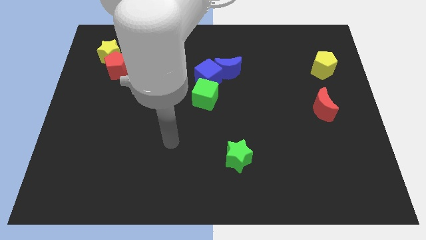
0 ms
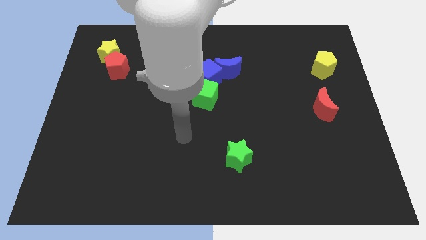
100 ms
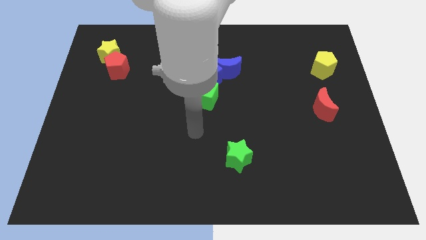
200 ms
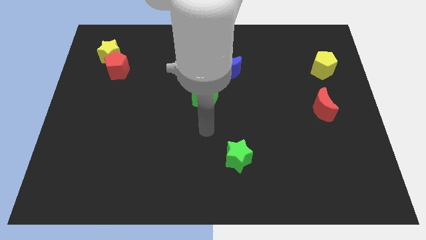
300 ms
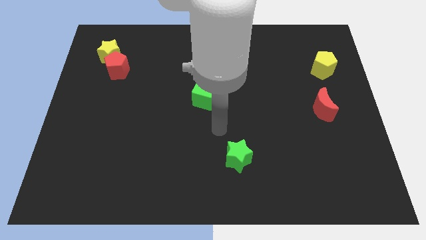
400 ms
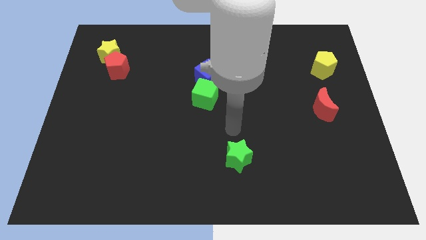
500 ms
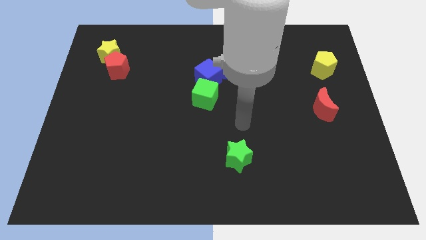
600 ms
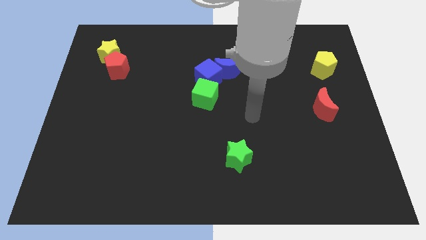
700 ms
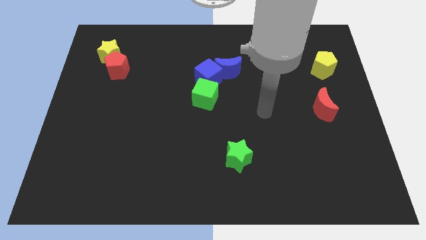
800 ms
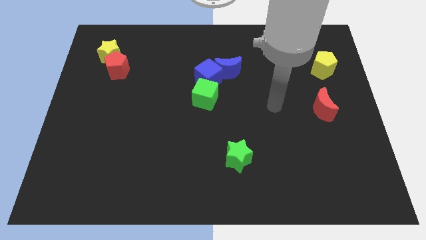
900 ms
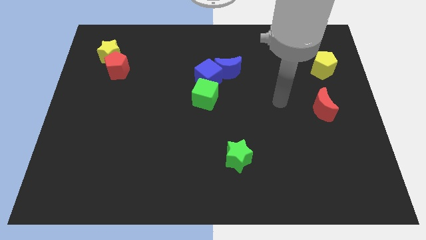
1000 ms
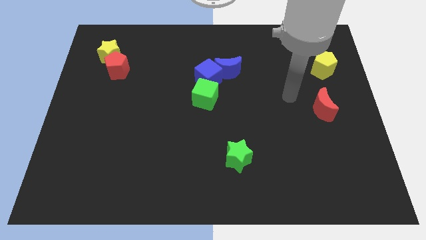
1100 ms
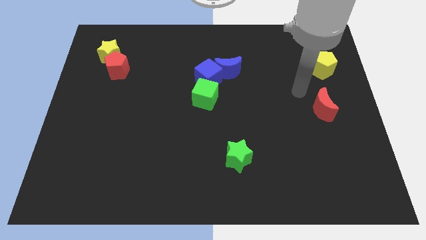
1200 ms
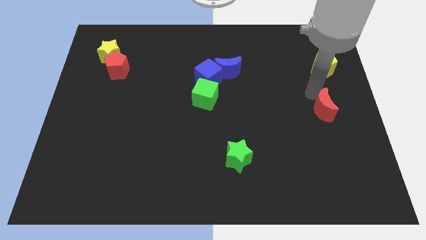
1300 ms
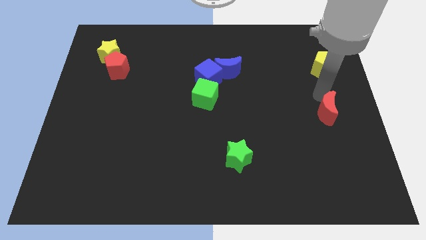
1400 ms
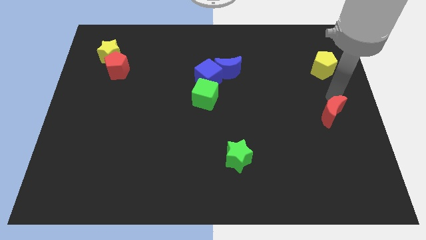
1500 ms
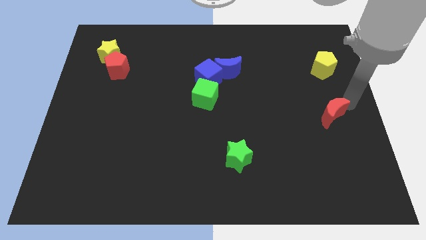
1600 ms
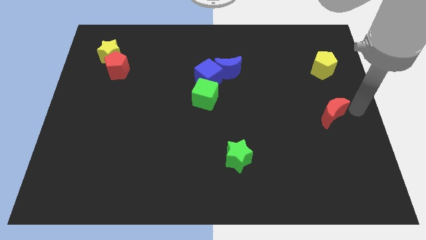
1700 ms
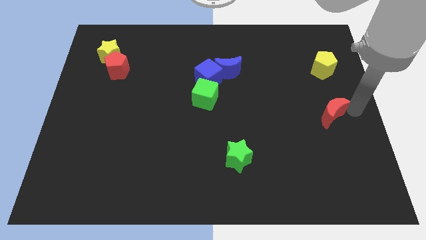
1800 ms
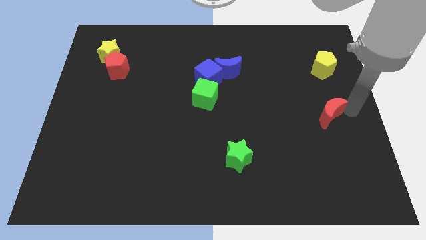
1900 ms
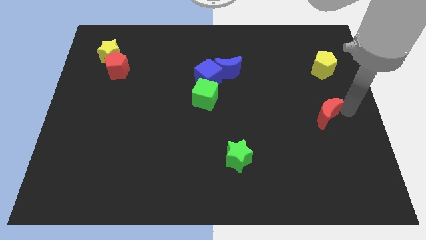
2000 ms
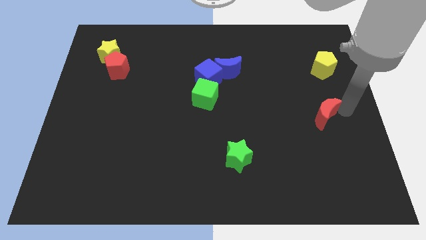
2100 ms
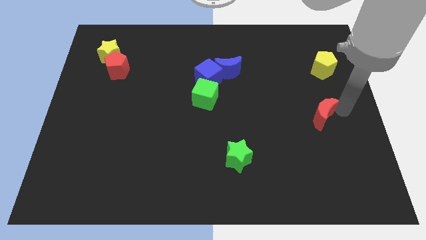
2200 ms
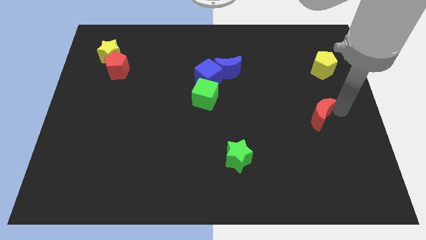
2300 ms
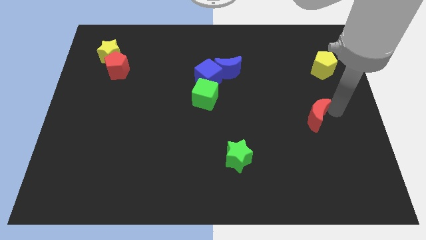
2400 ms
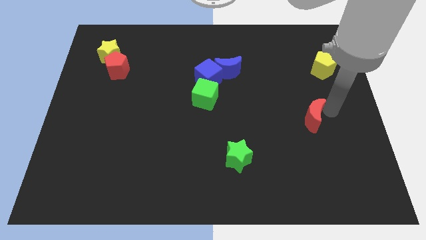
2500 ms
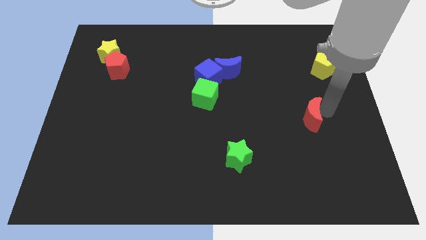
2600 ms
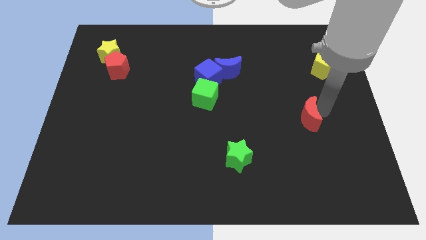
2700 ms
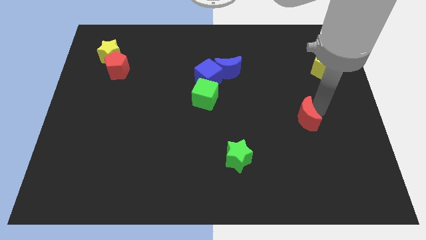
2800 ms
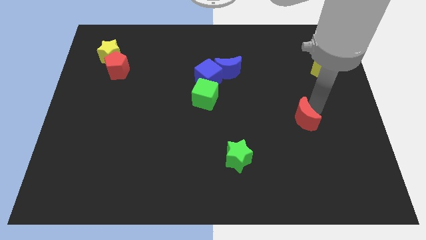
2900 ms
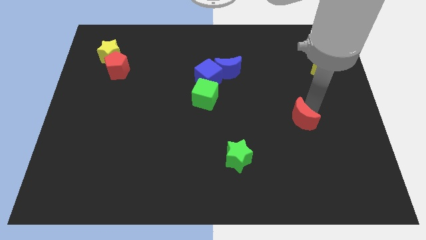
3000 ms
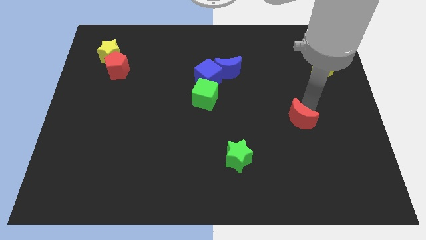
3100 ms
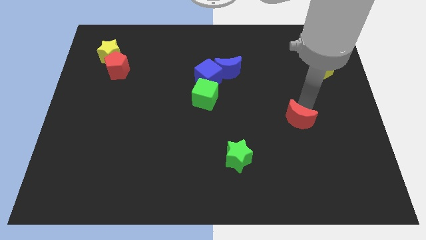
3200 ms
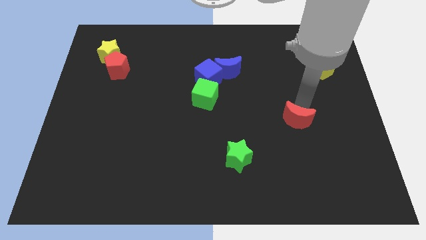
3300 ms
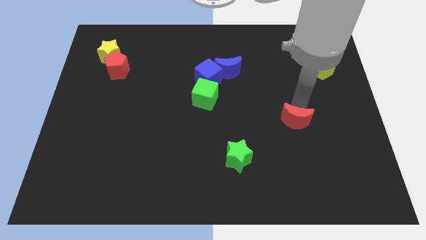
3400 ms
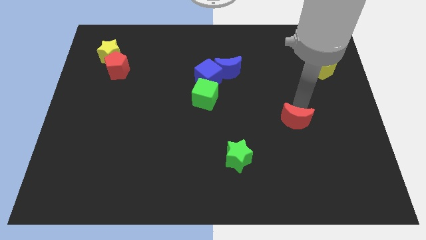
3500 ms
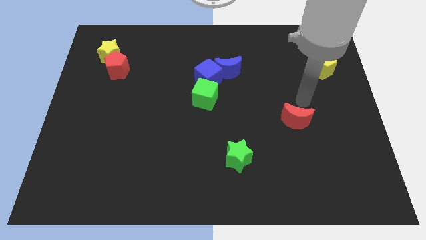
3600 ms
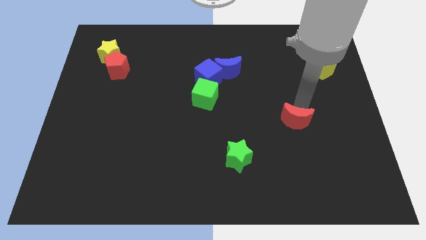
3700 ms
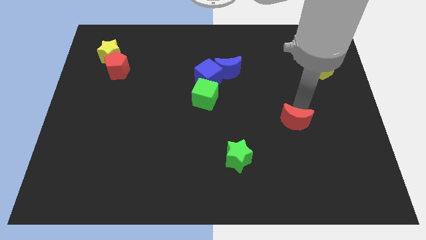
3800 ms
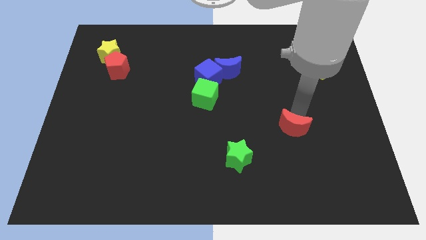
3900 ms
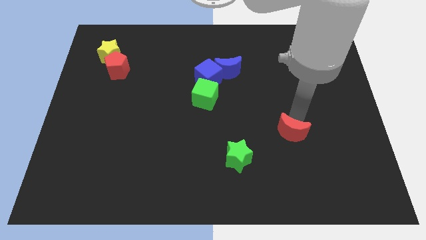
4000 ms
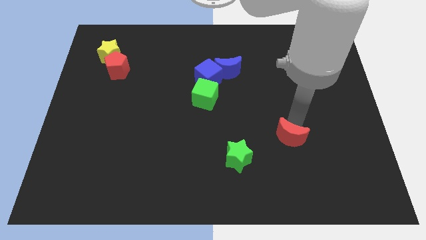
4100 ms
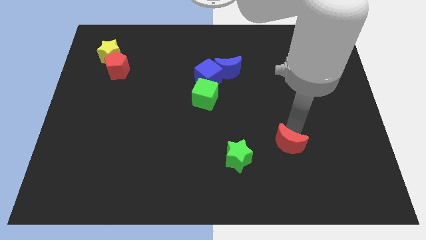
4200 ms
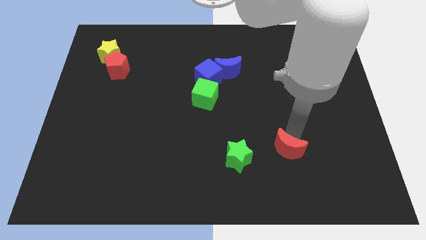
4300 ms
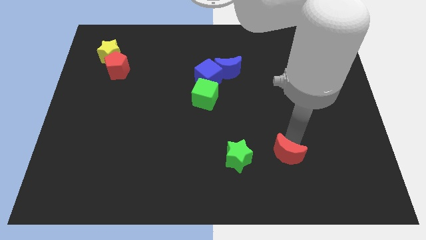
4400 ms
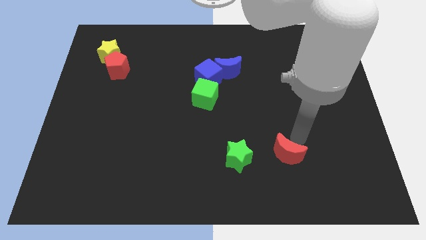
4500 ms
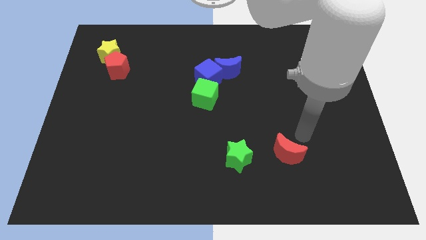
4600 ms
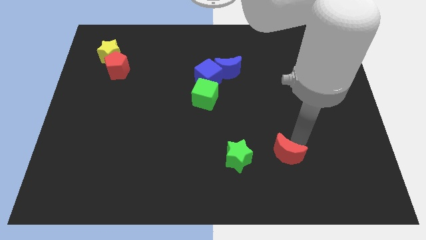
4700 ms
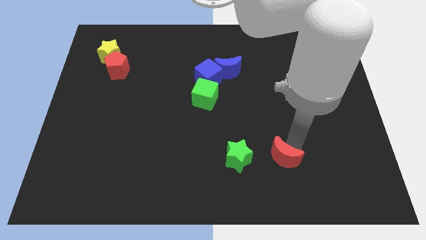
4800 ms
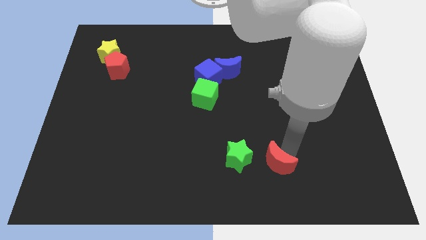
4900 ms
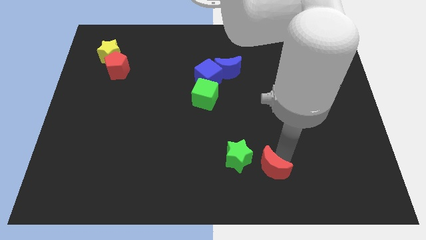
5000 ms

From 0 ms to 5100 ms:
move the red moon to the bottom right of the green star

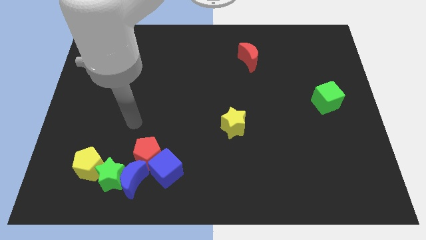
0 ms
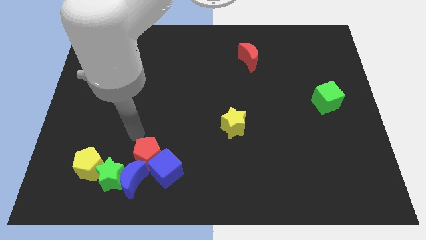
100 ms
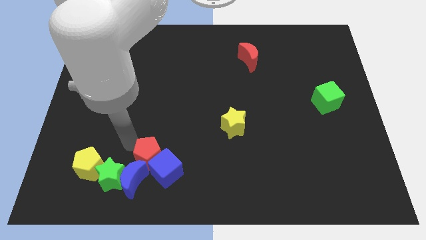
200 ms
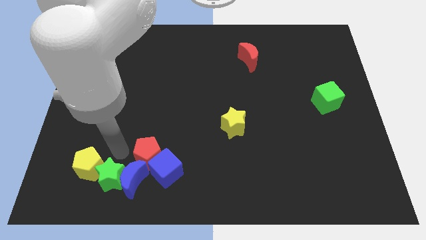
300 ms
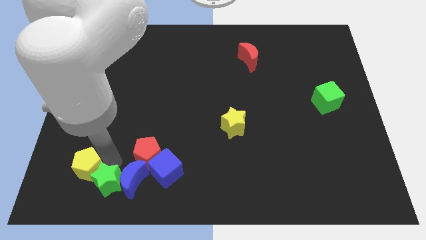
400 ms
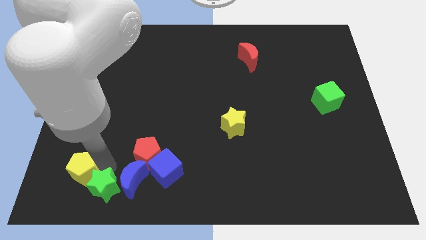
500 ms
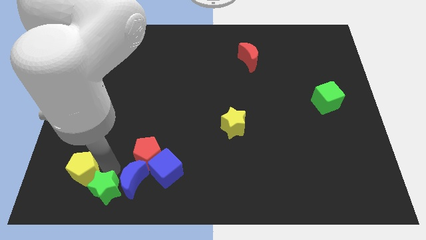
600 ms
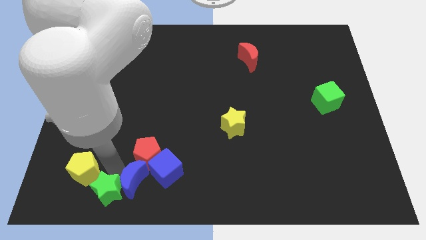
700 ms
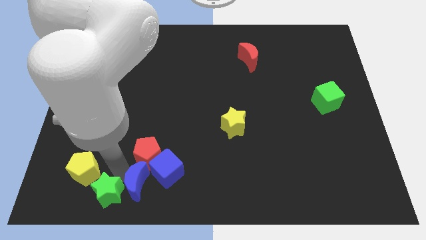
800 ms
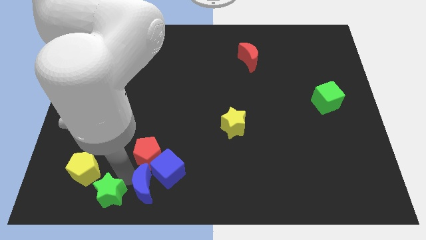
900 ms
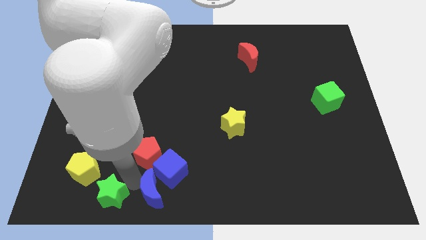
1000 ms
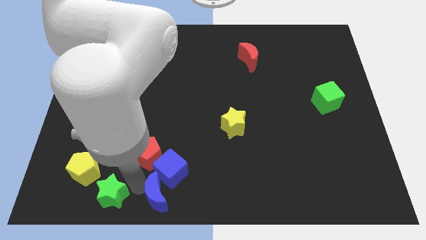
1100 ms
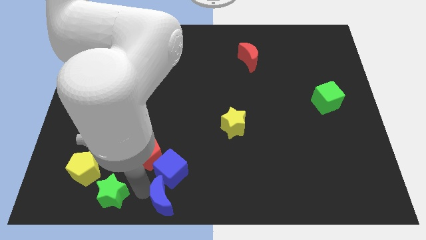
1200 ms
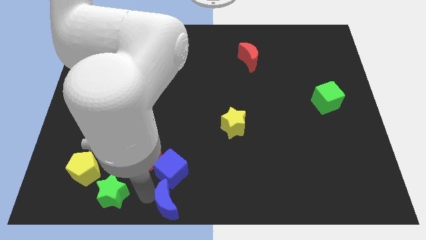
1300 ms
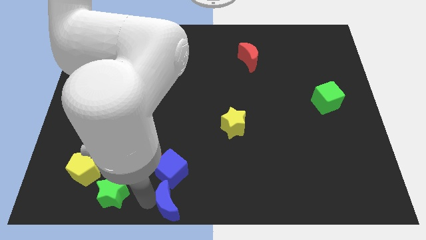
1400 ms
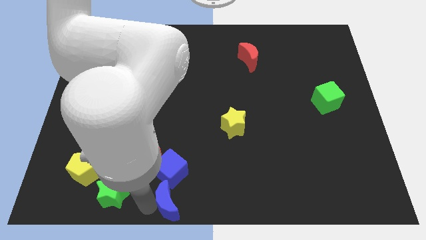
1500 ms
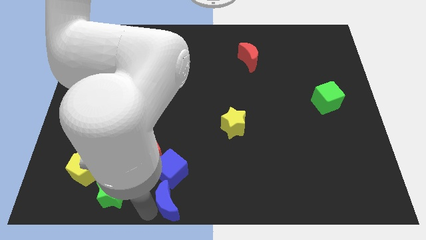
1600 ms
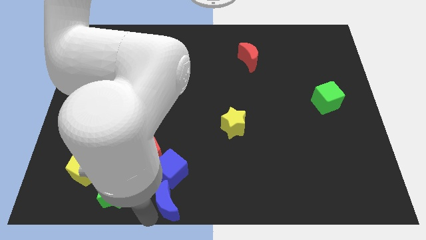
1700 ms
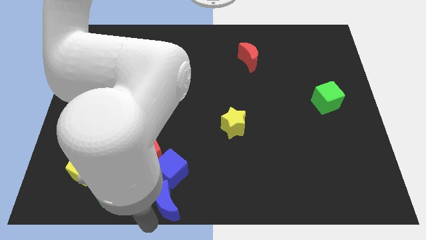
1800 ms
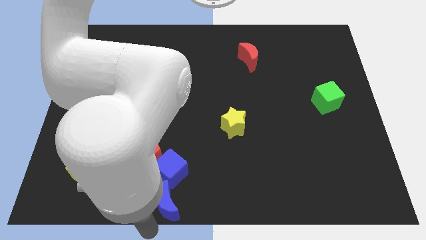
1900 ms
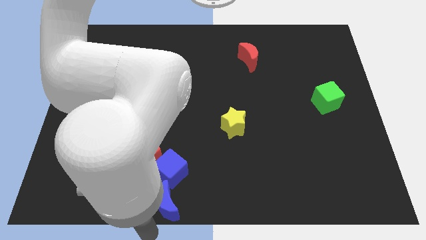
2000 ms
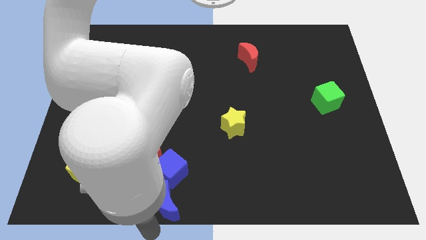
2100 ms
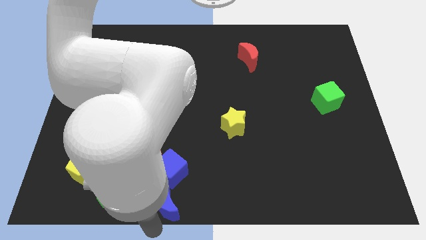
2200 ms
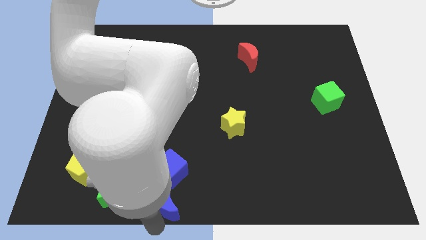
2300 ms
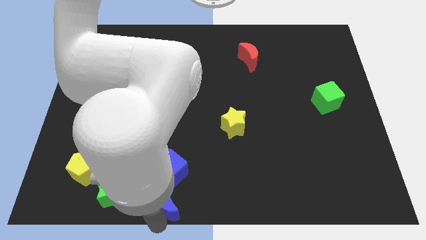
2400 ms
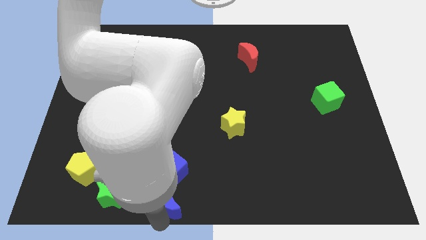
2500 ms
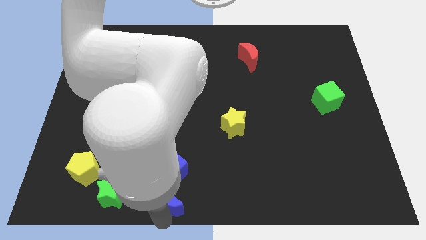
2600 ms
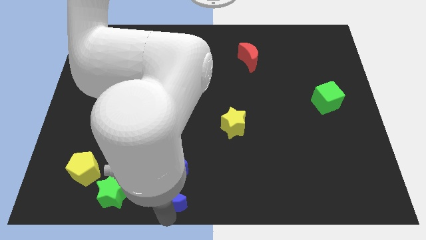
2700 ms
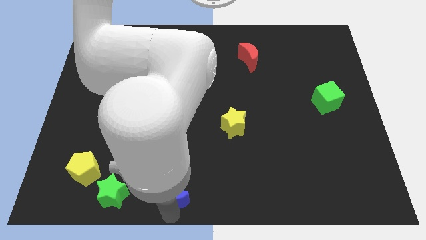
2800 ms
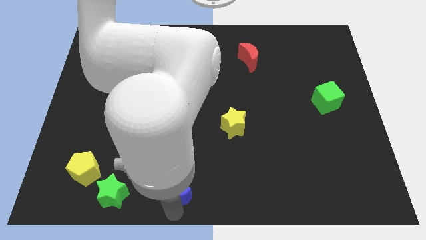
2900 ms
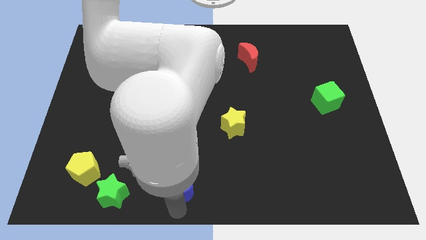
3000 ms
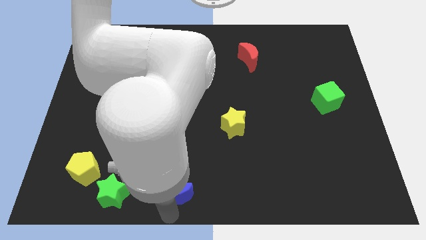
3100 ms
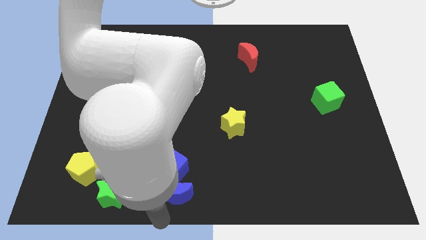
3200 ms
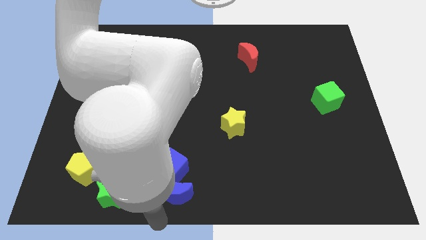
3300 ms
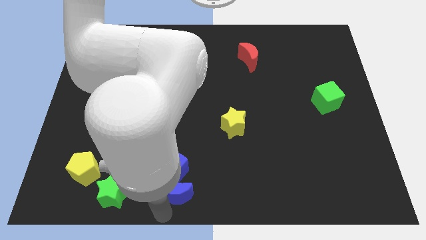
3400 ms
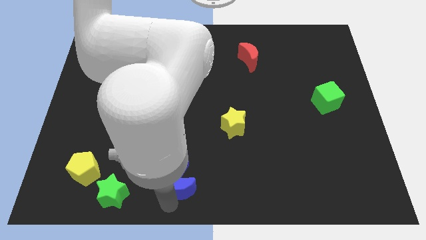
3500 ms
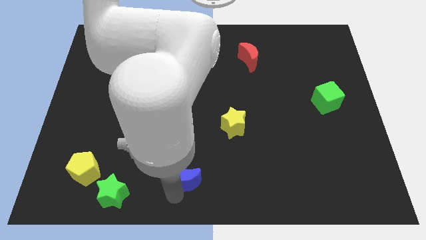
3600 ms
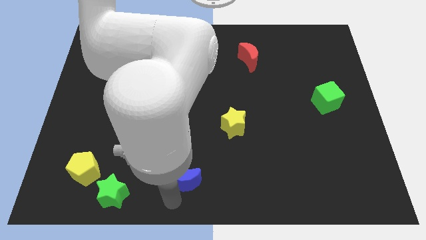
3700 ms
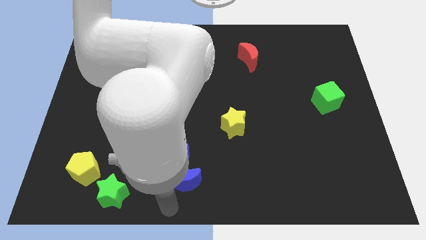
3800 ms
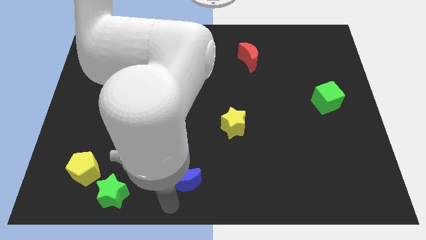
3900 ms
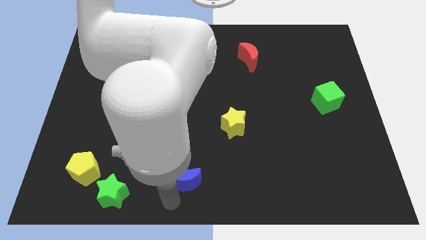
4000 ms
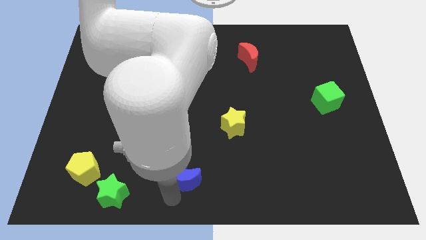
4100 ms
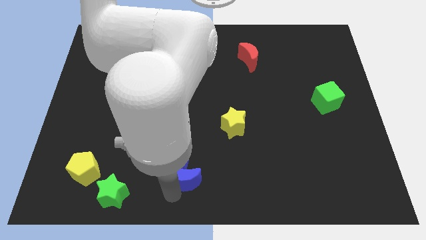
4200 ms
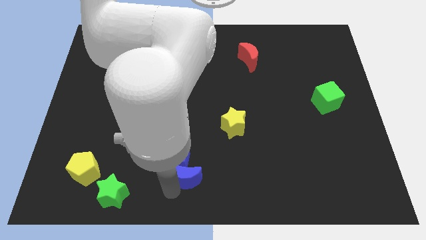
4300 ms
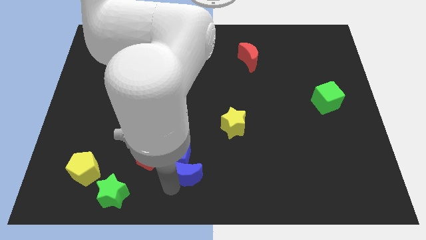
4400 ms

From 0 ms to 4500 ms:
move the blue moon right of the red pentagon
